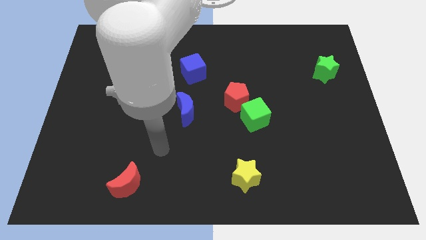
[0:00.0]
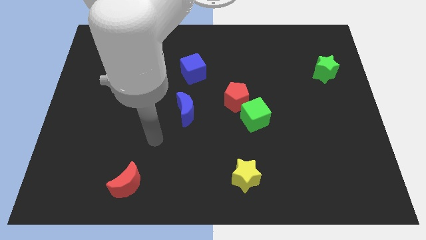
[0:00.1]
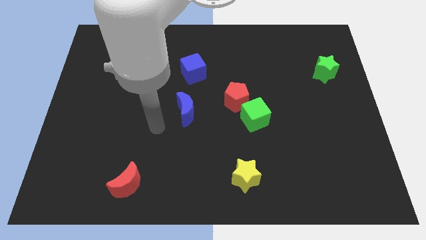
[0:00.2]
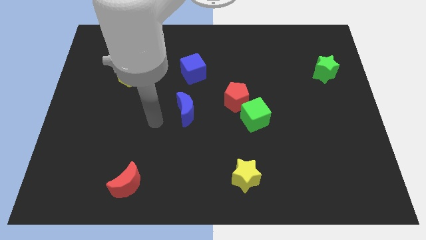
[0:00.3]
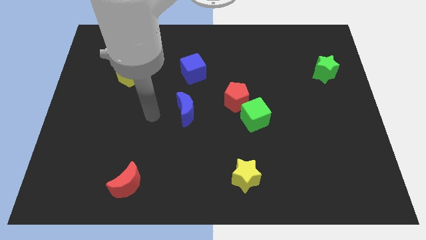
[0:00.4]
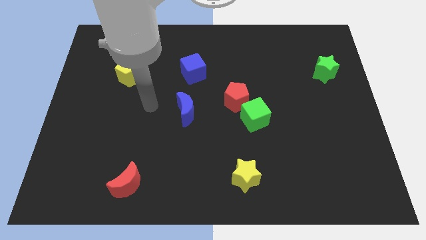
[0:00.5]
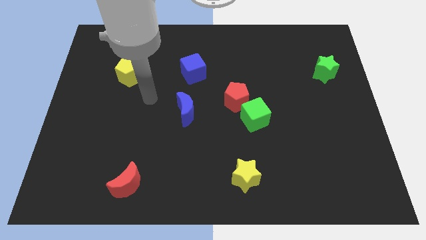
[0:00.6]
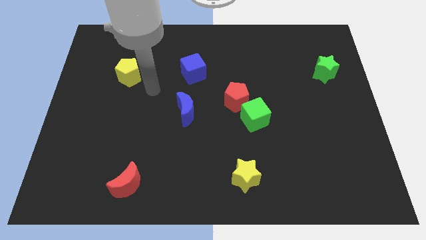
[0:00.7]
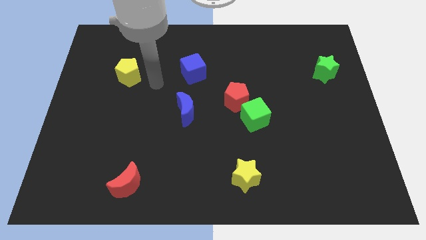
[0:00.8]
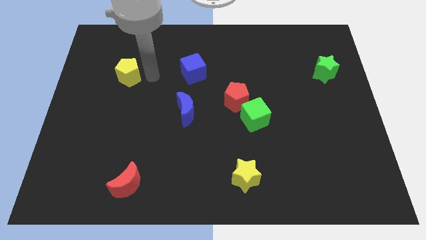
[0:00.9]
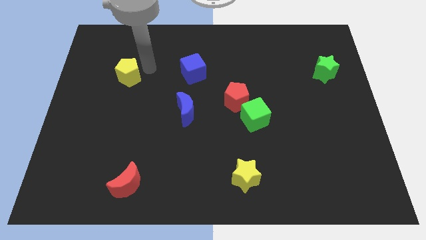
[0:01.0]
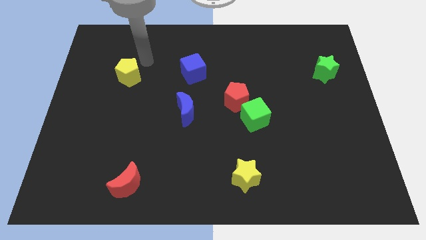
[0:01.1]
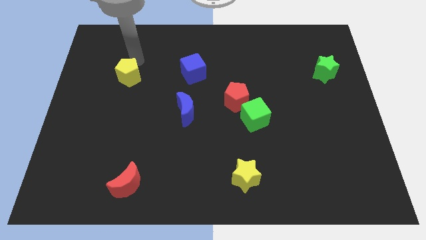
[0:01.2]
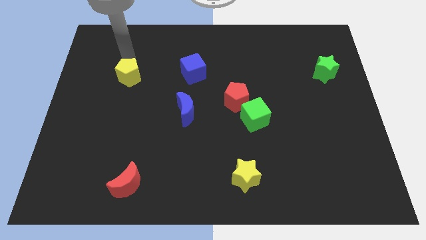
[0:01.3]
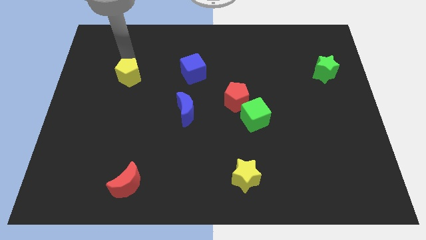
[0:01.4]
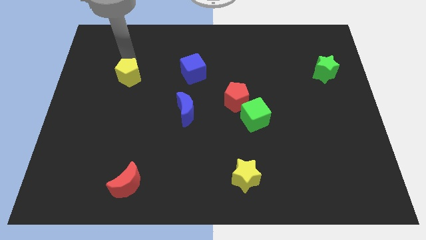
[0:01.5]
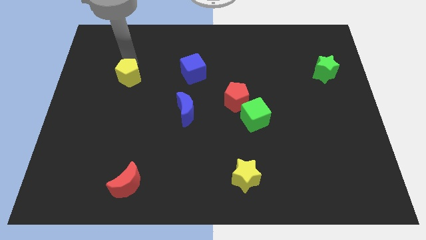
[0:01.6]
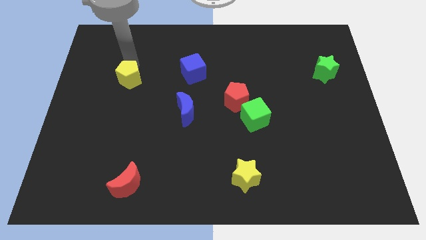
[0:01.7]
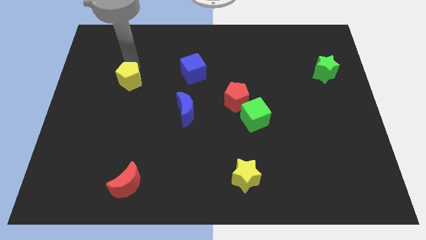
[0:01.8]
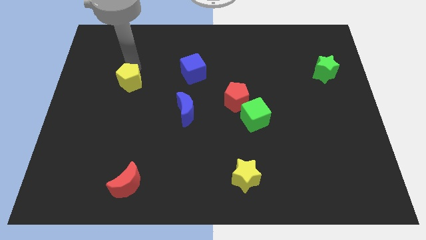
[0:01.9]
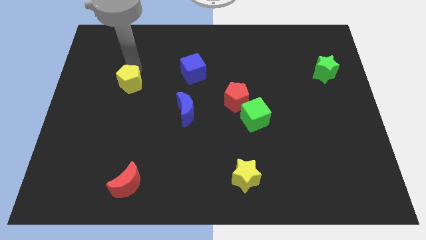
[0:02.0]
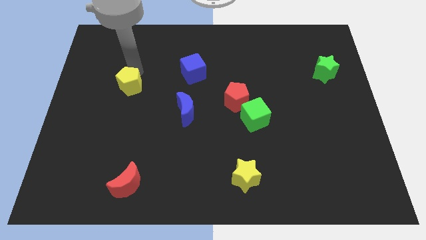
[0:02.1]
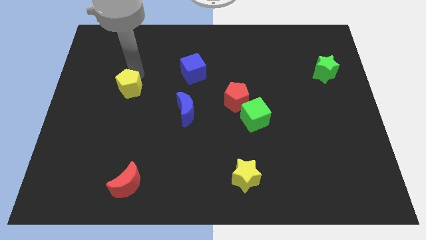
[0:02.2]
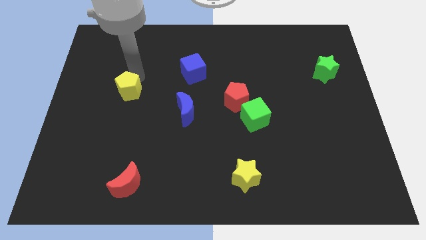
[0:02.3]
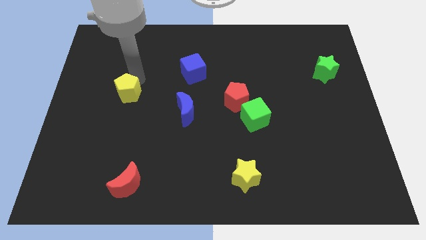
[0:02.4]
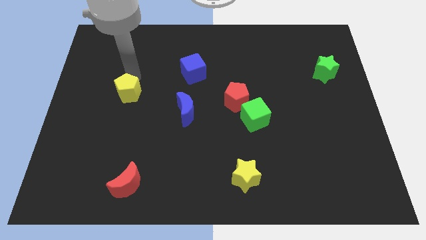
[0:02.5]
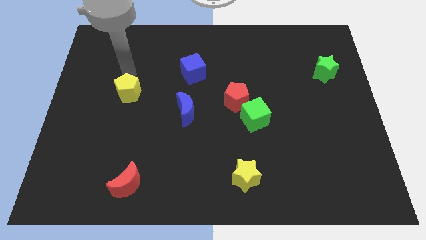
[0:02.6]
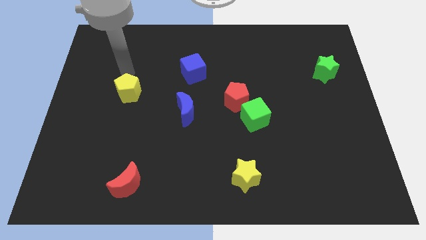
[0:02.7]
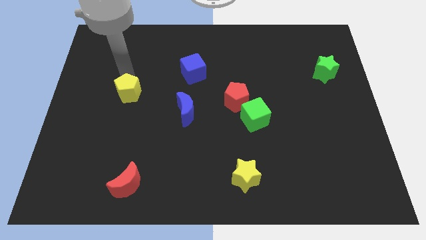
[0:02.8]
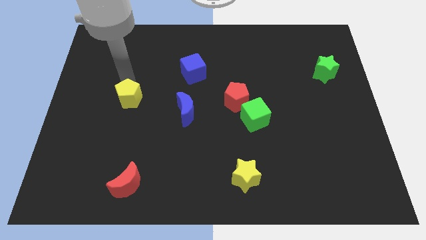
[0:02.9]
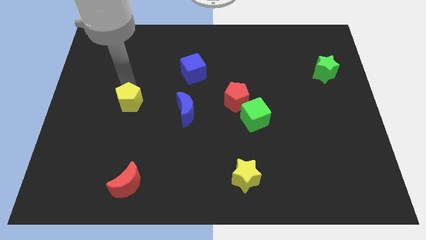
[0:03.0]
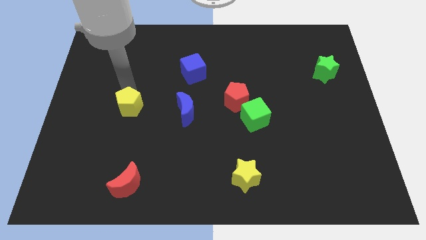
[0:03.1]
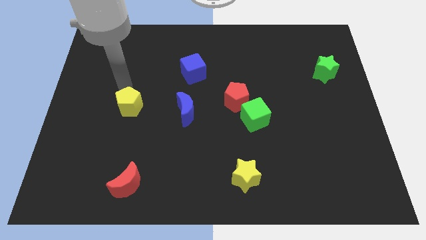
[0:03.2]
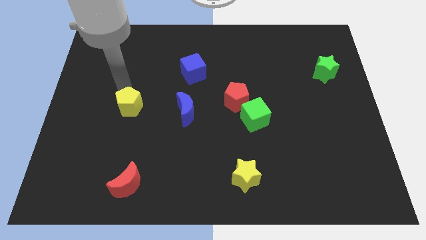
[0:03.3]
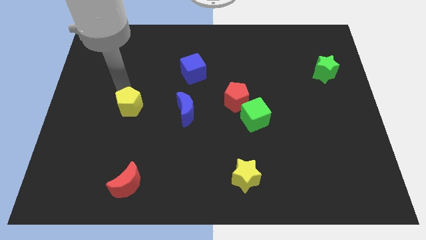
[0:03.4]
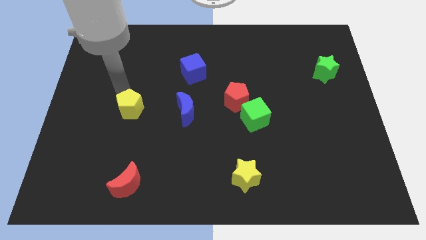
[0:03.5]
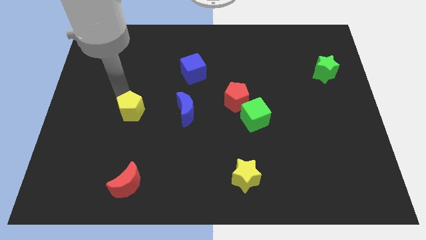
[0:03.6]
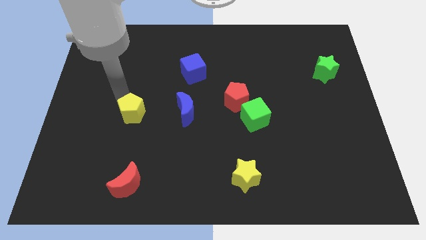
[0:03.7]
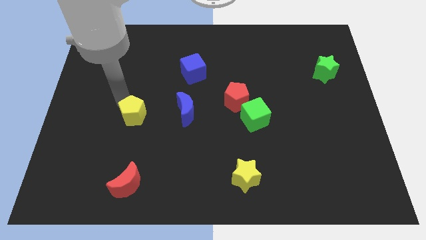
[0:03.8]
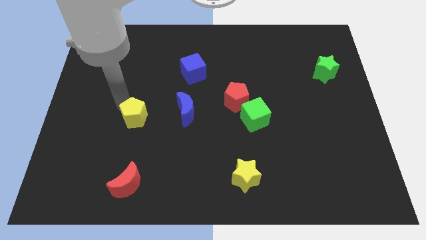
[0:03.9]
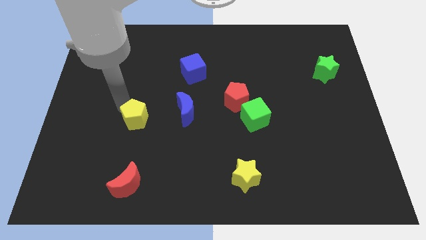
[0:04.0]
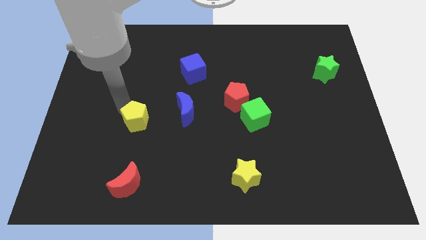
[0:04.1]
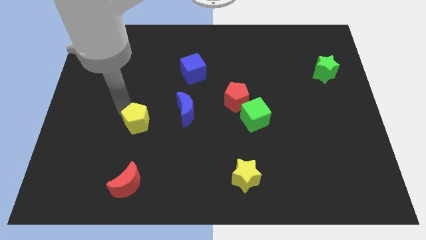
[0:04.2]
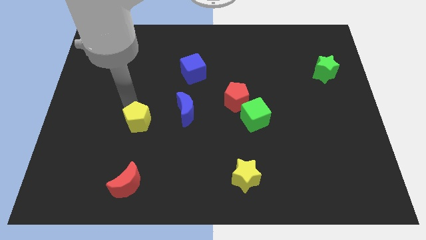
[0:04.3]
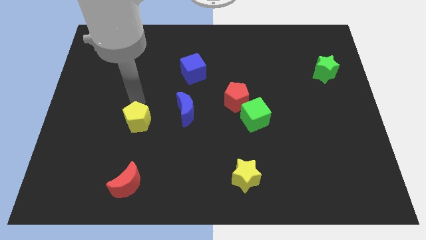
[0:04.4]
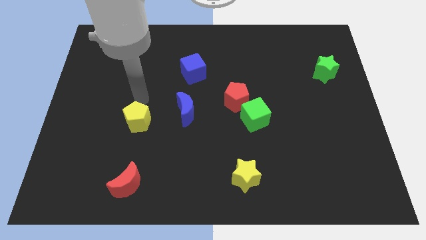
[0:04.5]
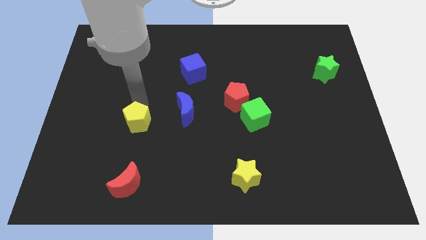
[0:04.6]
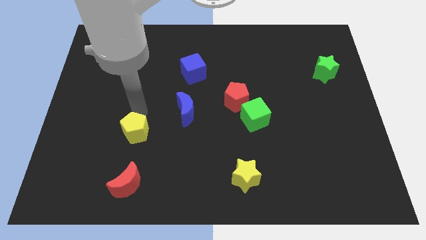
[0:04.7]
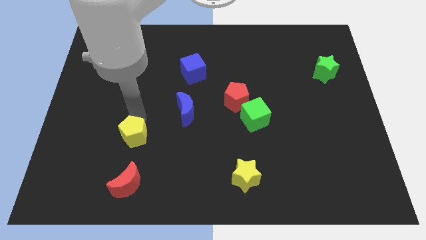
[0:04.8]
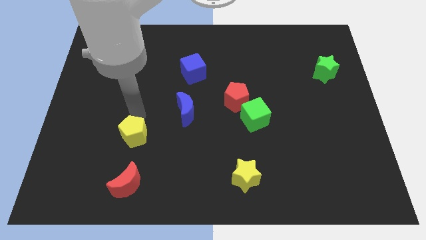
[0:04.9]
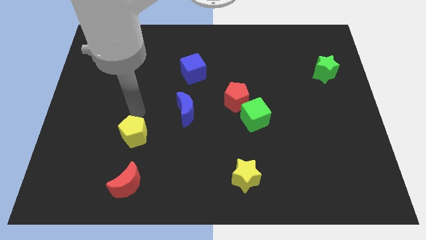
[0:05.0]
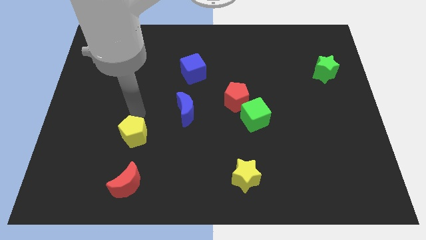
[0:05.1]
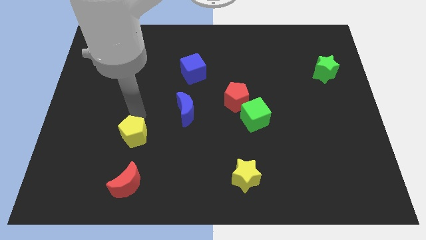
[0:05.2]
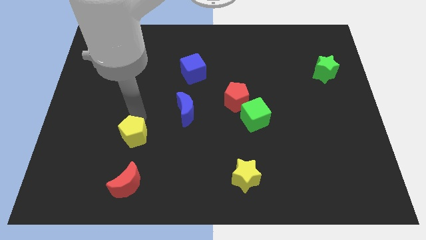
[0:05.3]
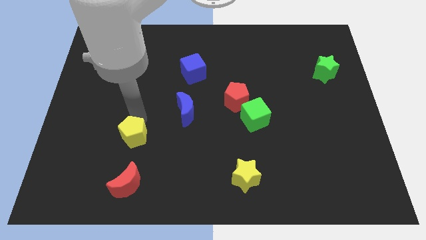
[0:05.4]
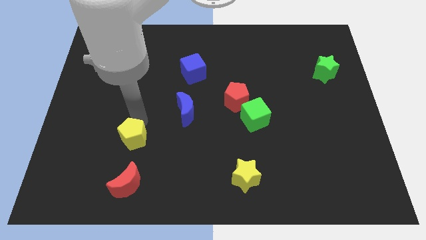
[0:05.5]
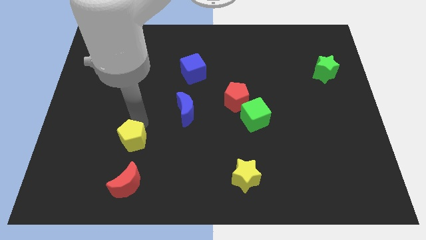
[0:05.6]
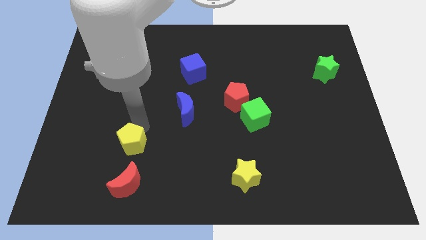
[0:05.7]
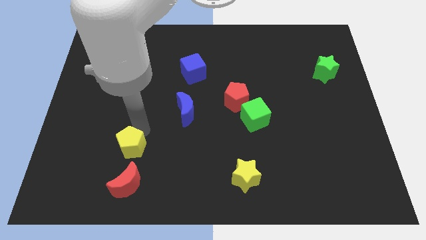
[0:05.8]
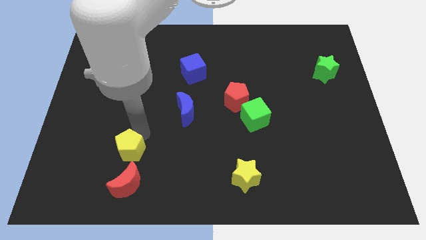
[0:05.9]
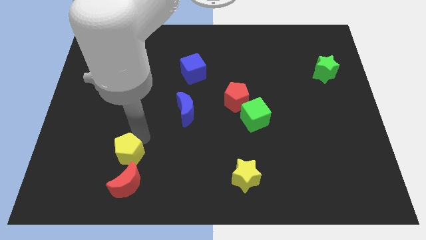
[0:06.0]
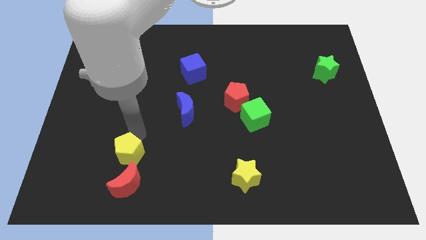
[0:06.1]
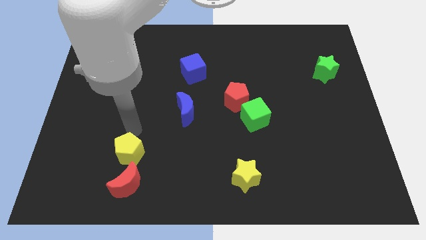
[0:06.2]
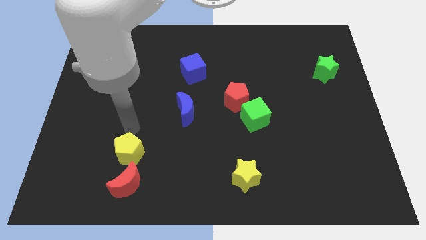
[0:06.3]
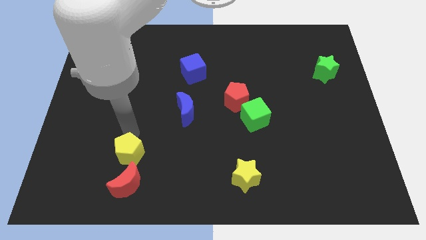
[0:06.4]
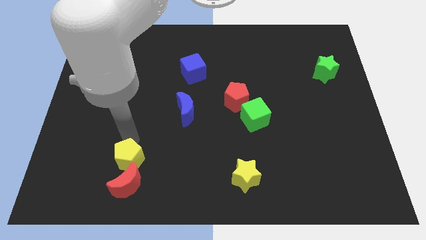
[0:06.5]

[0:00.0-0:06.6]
move the yellow pentagon next to the red moon

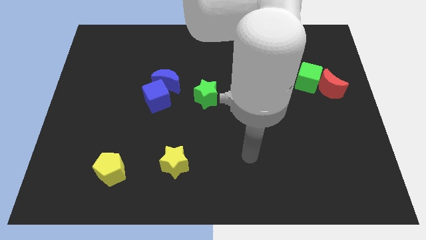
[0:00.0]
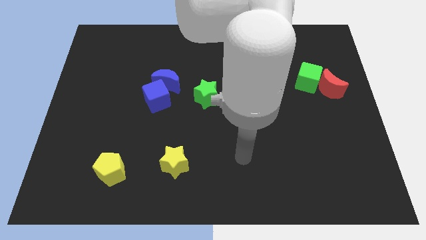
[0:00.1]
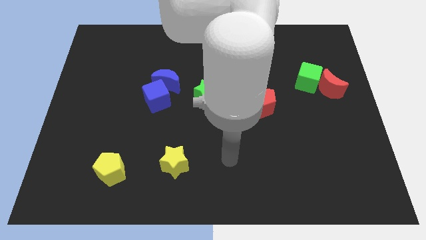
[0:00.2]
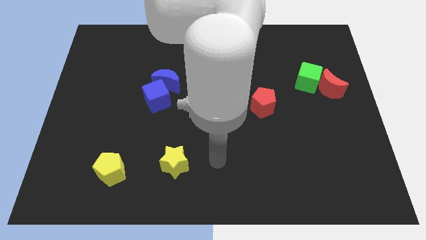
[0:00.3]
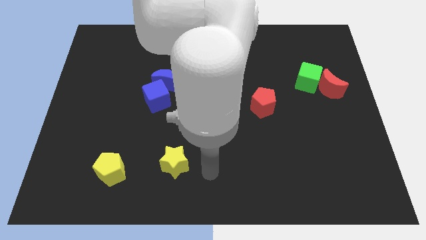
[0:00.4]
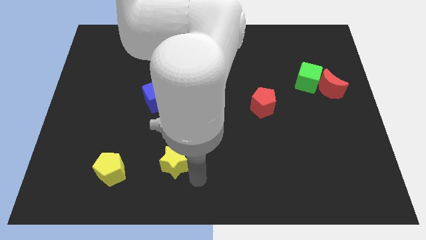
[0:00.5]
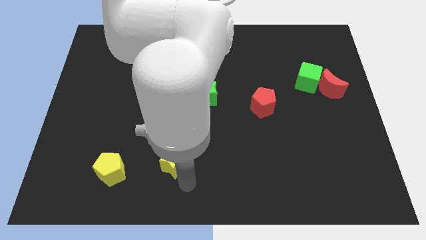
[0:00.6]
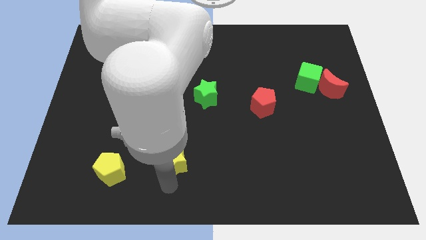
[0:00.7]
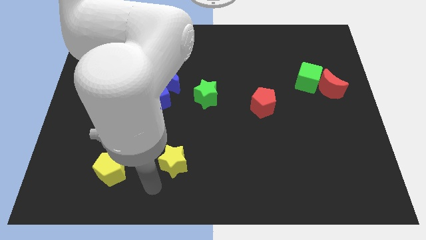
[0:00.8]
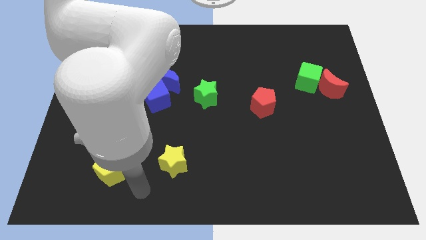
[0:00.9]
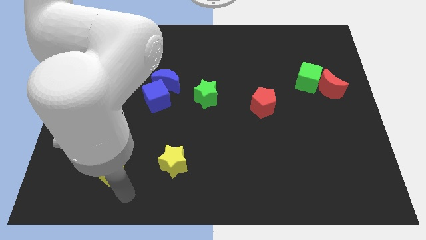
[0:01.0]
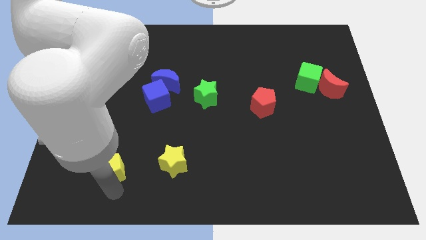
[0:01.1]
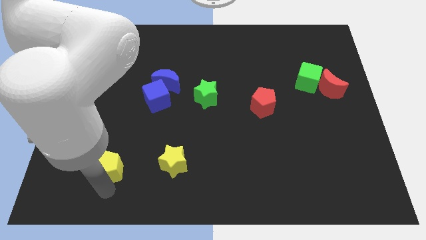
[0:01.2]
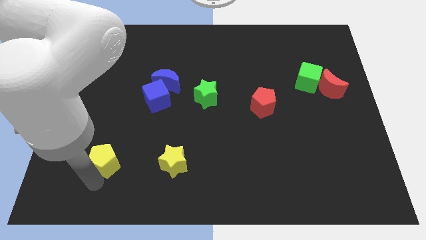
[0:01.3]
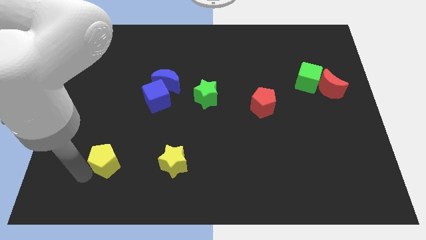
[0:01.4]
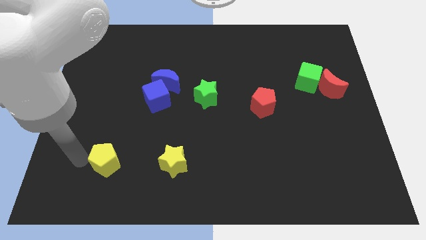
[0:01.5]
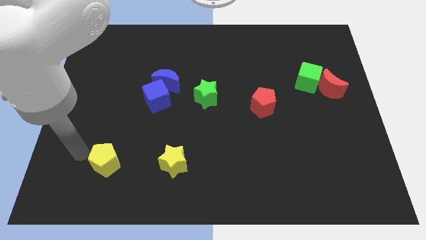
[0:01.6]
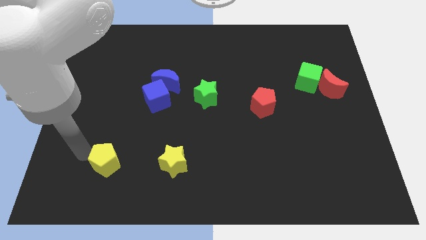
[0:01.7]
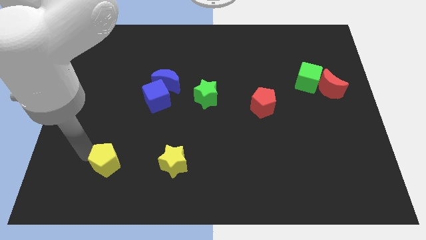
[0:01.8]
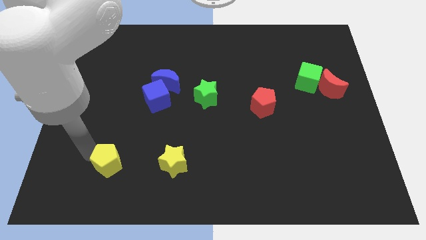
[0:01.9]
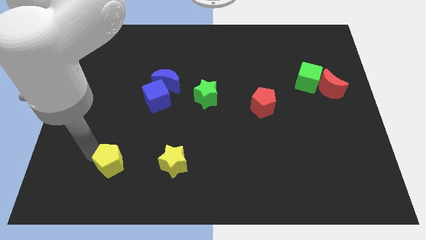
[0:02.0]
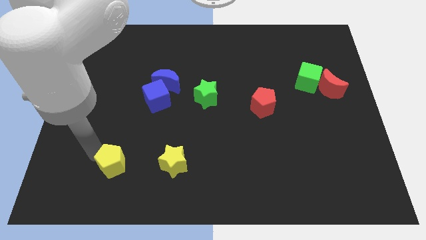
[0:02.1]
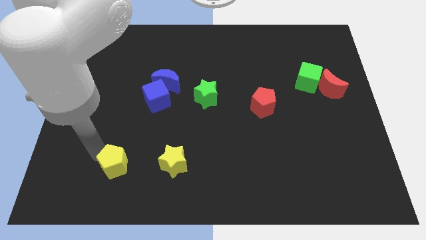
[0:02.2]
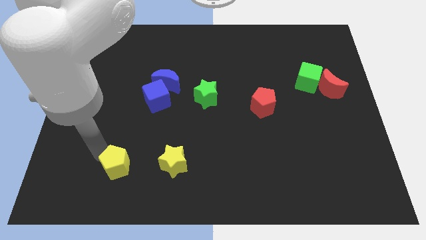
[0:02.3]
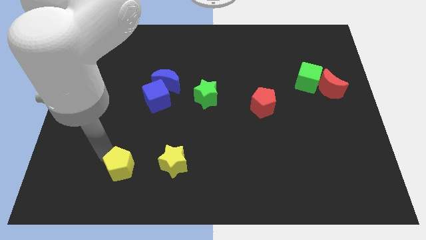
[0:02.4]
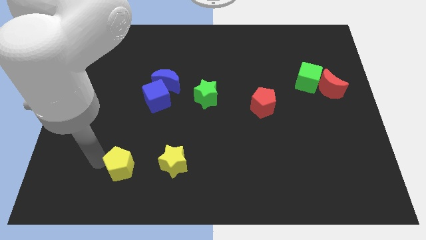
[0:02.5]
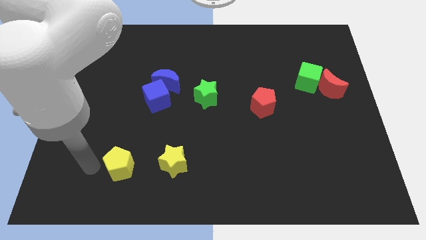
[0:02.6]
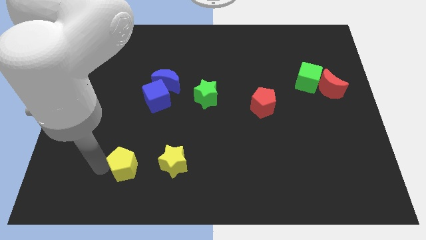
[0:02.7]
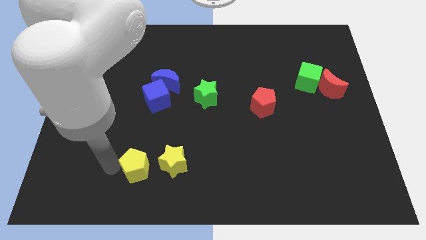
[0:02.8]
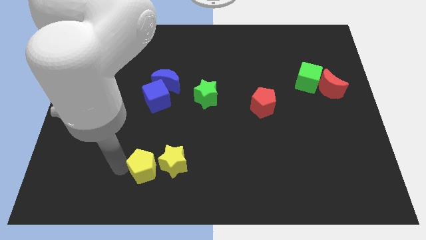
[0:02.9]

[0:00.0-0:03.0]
move the yellow pentagon close to the yellow star
